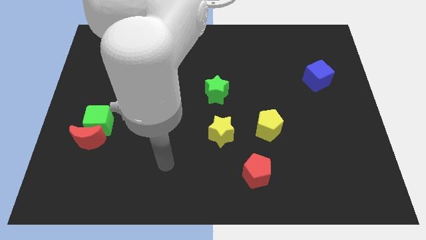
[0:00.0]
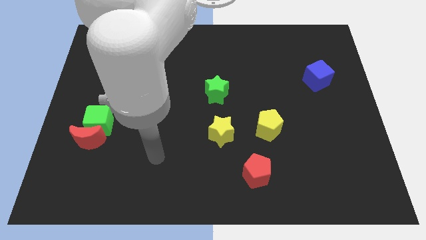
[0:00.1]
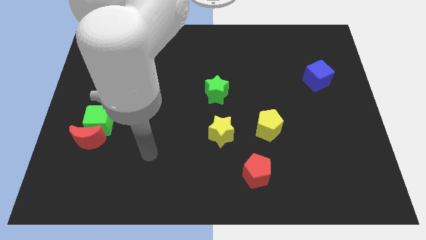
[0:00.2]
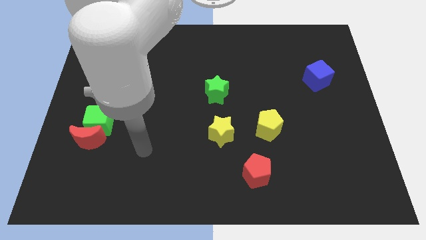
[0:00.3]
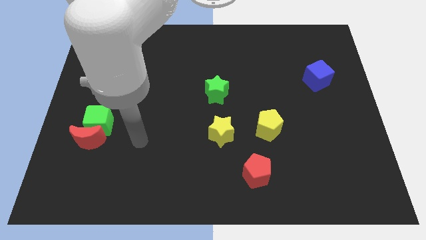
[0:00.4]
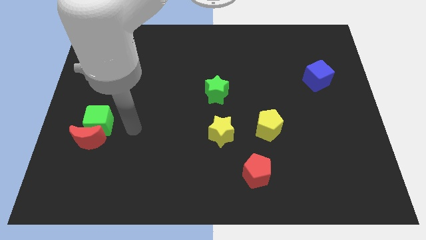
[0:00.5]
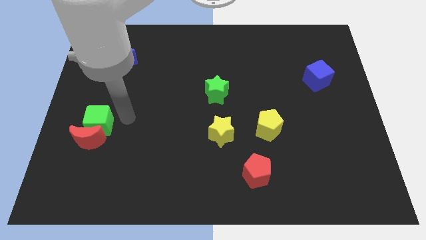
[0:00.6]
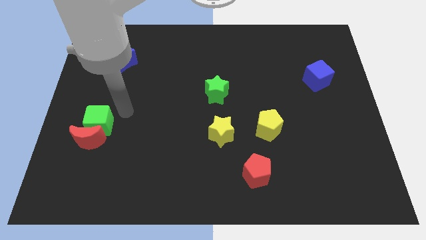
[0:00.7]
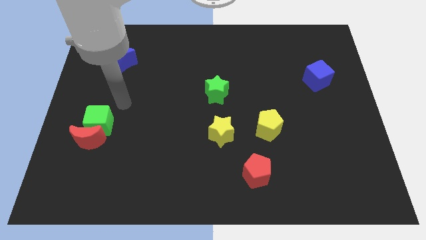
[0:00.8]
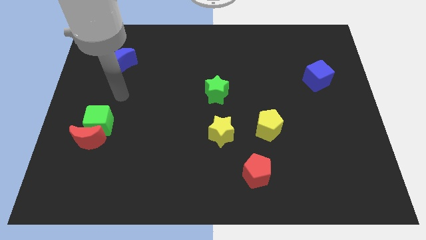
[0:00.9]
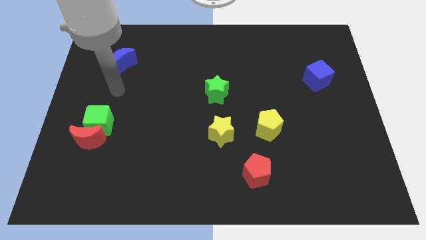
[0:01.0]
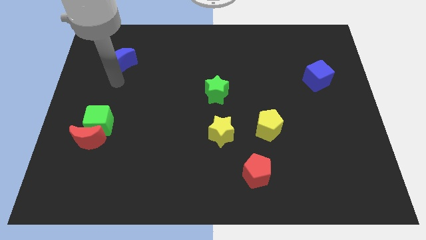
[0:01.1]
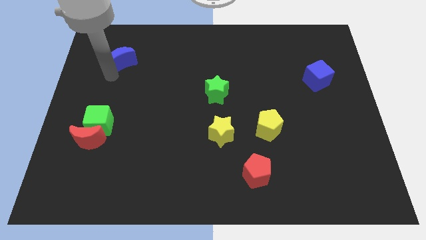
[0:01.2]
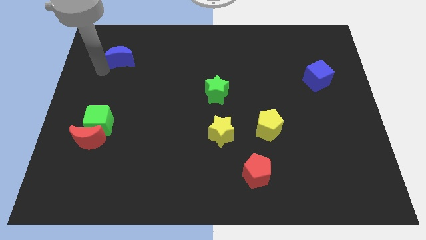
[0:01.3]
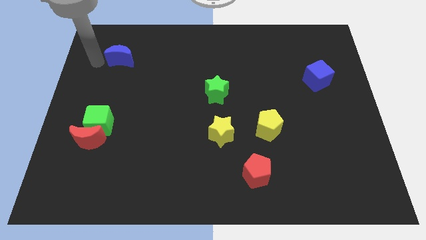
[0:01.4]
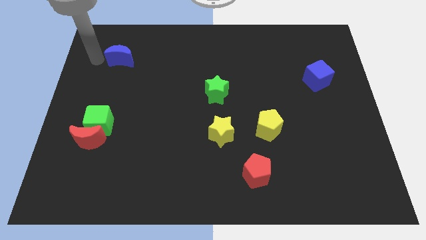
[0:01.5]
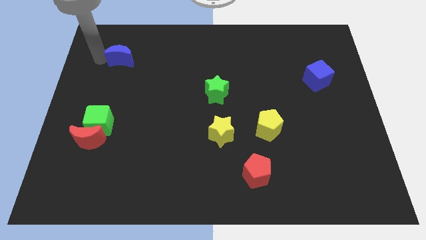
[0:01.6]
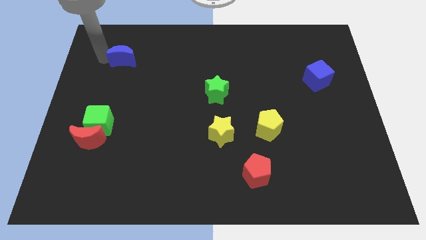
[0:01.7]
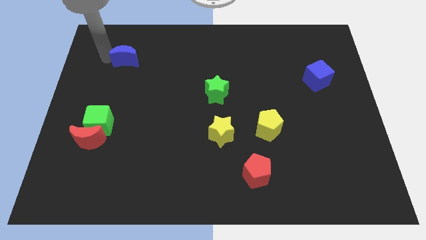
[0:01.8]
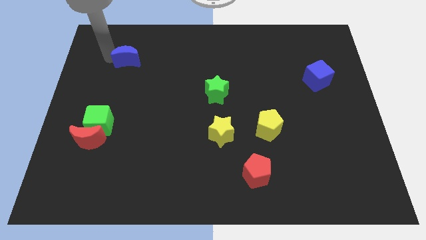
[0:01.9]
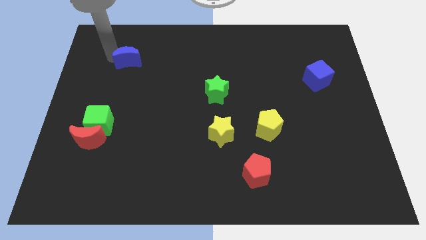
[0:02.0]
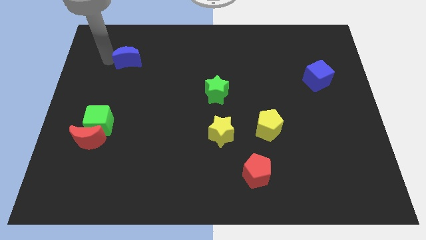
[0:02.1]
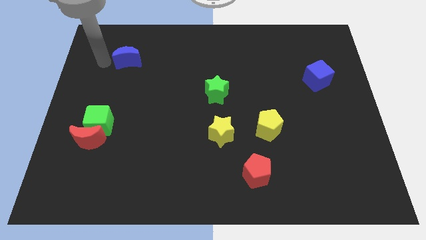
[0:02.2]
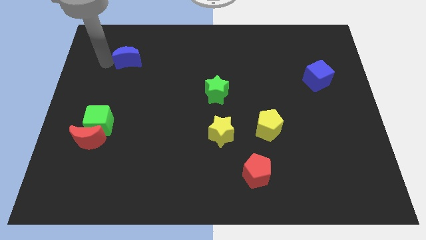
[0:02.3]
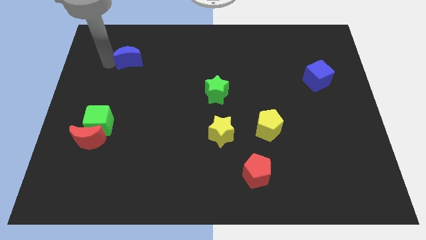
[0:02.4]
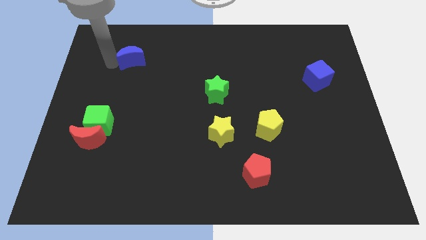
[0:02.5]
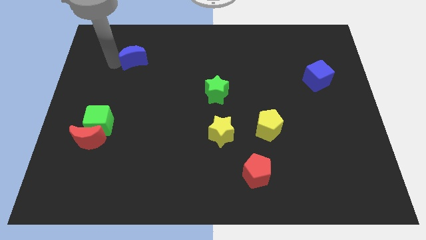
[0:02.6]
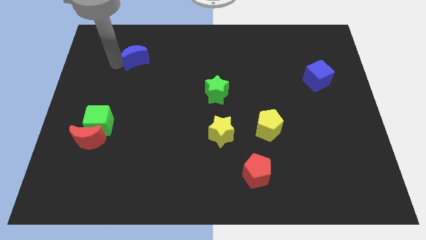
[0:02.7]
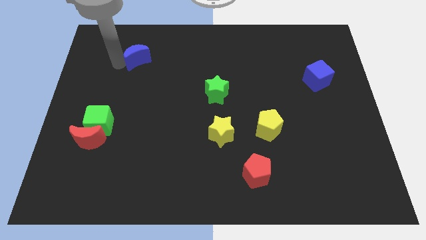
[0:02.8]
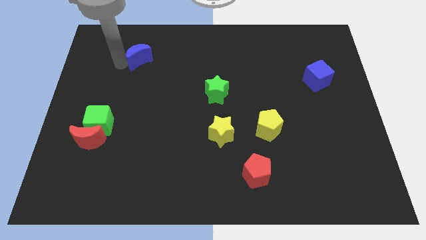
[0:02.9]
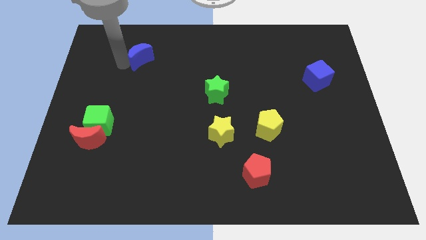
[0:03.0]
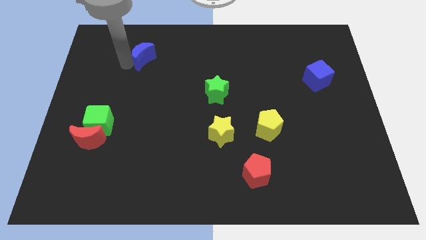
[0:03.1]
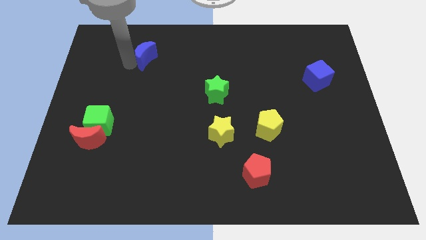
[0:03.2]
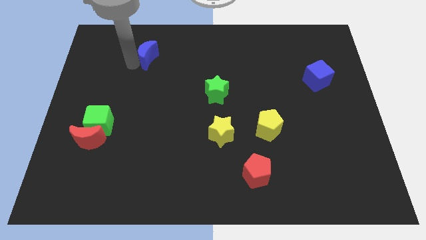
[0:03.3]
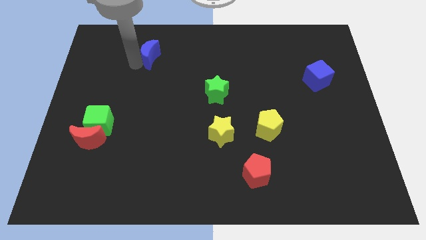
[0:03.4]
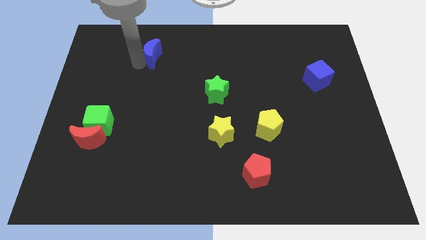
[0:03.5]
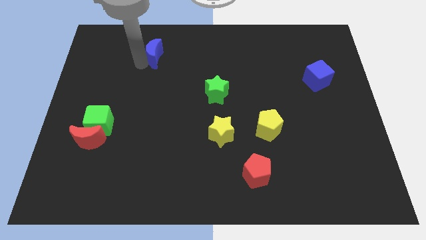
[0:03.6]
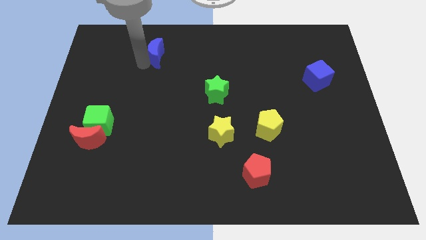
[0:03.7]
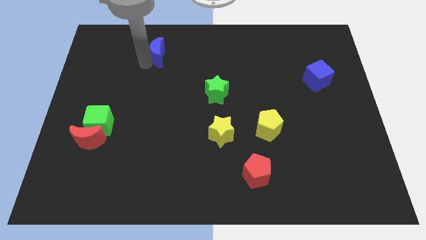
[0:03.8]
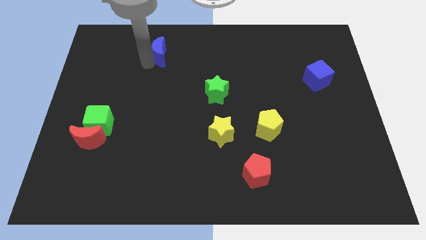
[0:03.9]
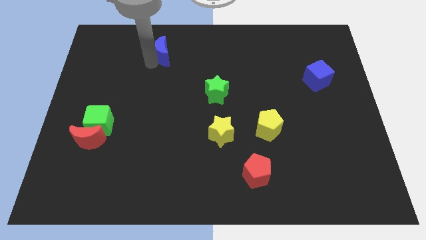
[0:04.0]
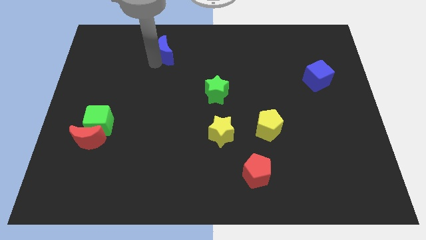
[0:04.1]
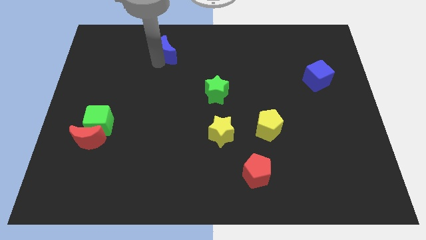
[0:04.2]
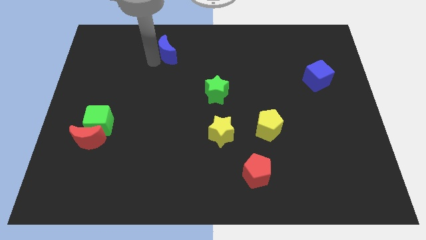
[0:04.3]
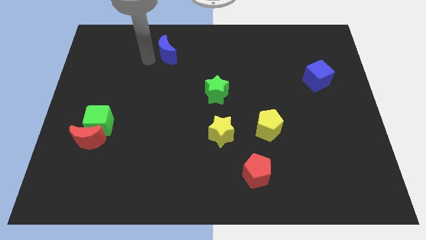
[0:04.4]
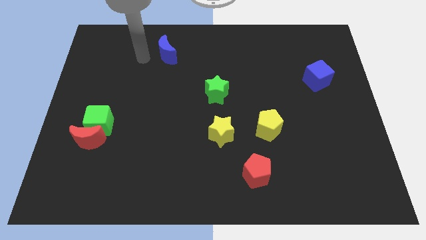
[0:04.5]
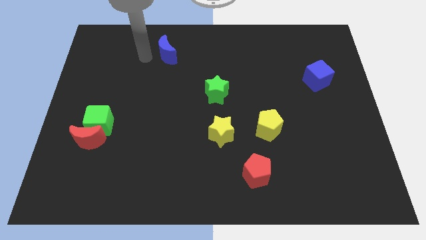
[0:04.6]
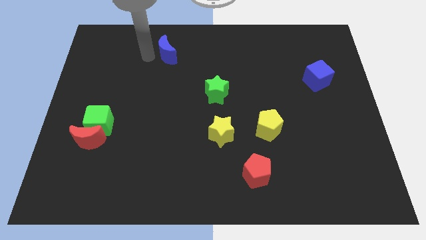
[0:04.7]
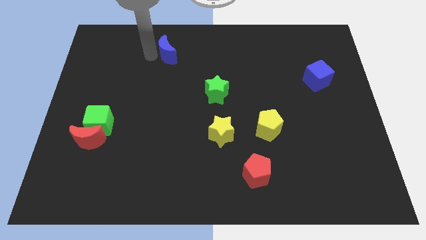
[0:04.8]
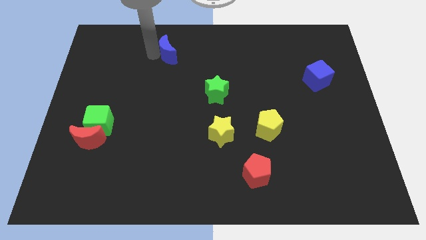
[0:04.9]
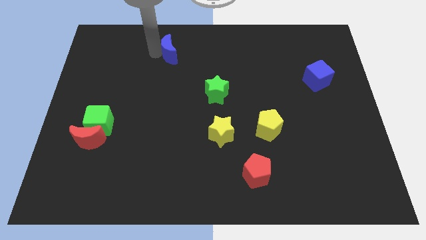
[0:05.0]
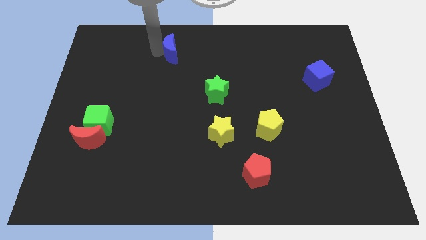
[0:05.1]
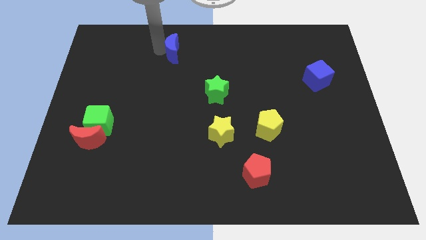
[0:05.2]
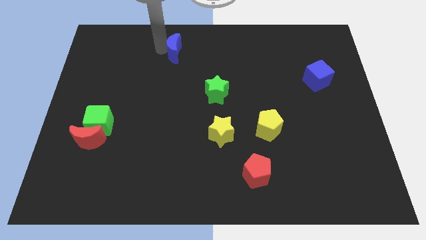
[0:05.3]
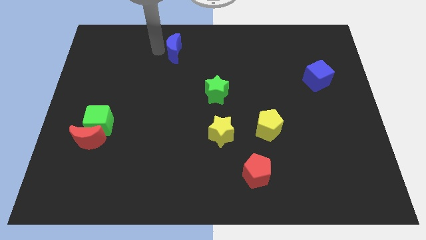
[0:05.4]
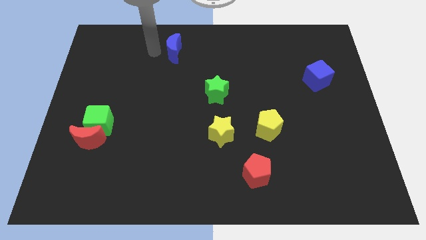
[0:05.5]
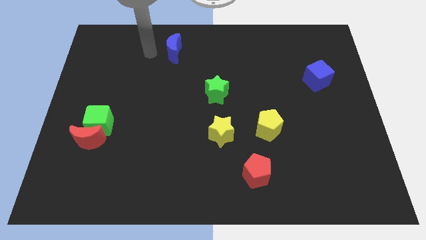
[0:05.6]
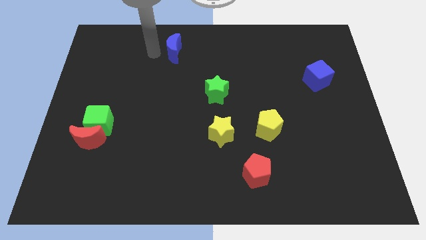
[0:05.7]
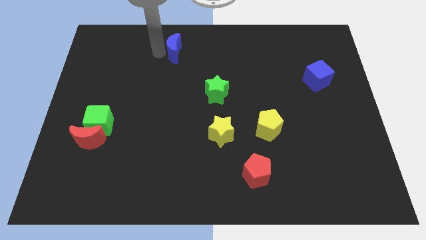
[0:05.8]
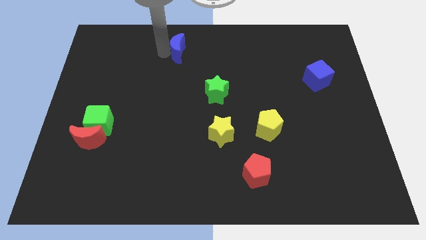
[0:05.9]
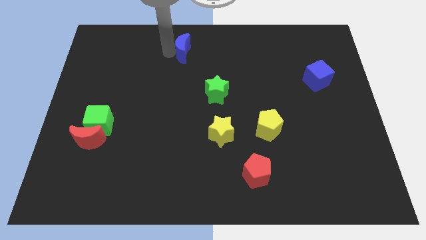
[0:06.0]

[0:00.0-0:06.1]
put the blue moon to the top

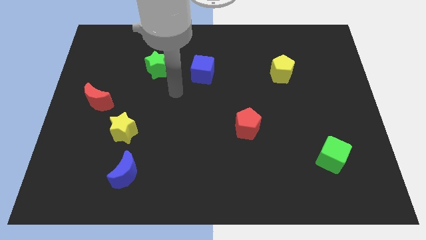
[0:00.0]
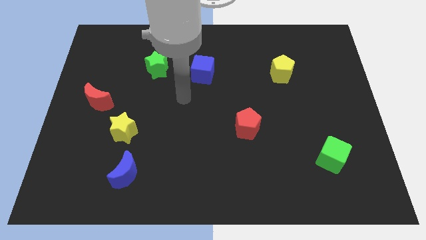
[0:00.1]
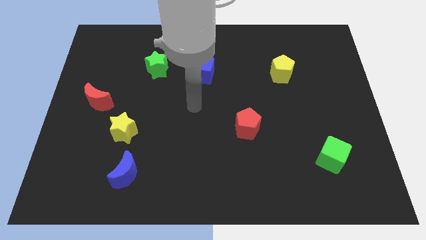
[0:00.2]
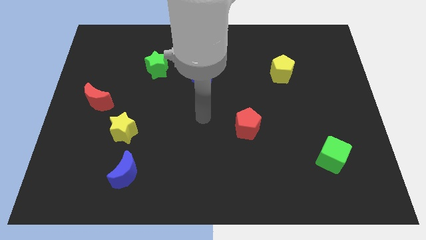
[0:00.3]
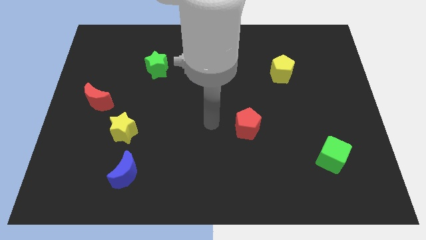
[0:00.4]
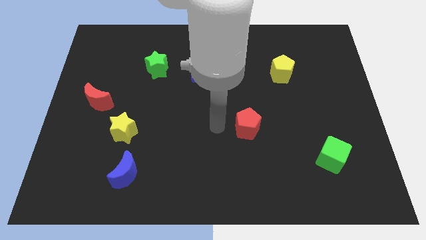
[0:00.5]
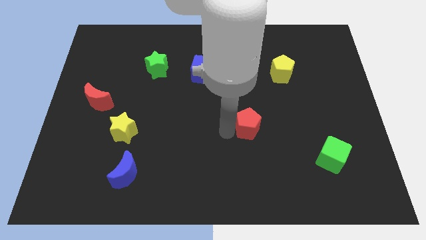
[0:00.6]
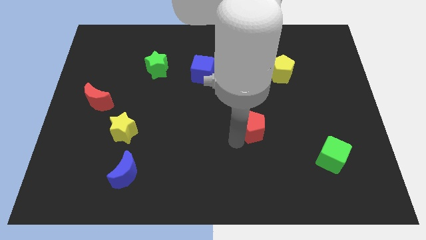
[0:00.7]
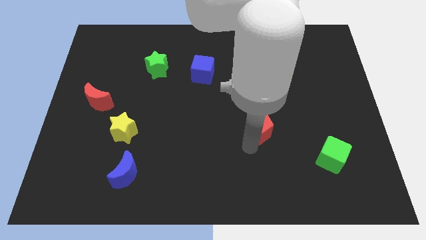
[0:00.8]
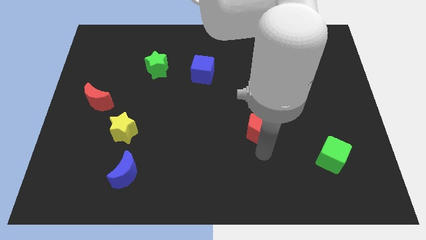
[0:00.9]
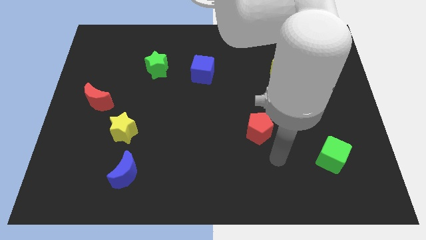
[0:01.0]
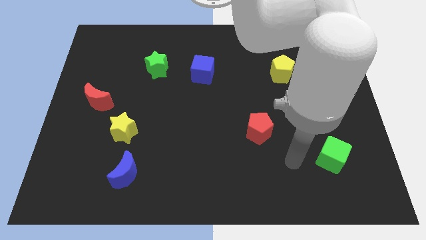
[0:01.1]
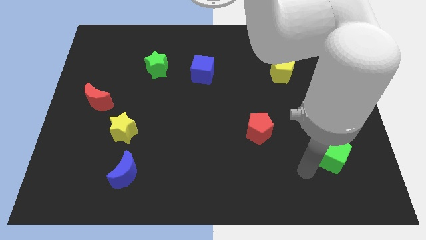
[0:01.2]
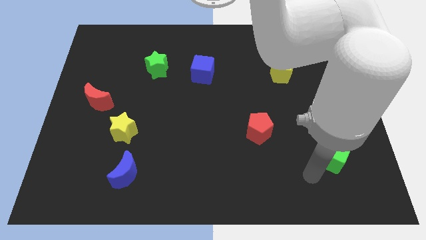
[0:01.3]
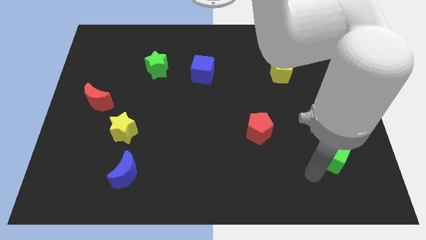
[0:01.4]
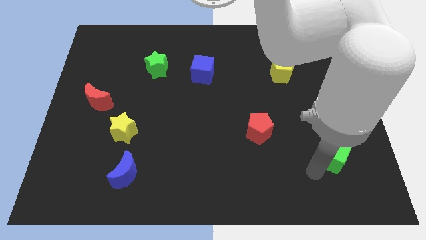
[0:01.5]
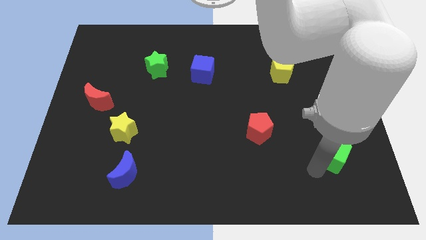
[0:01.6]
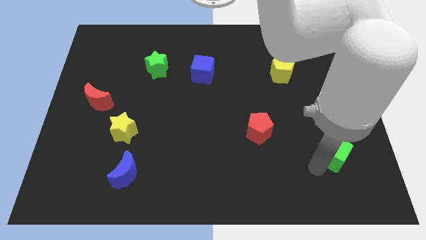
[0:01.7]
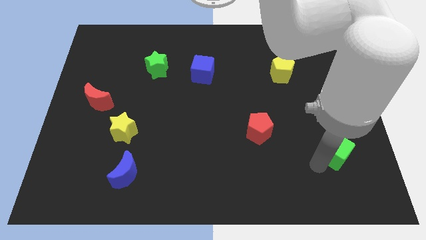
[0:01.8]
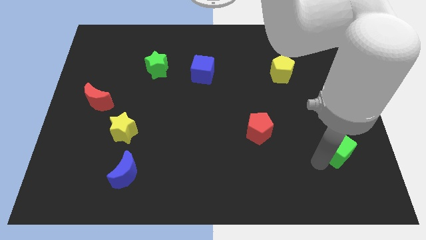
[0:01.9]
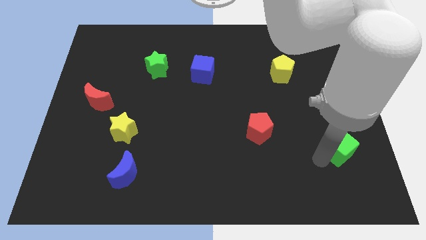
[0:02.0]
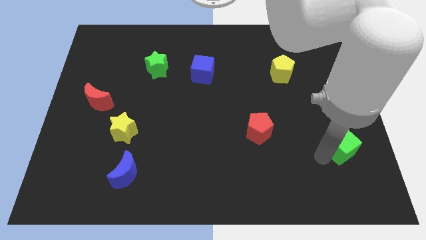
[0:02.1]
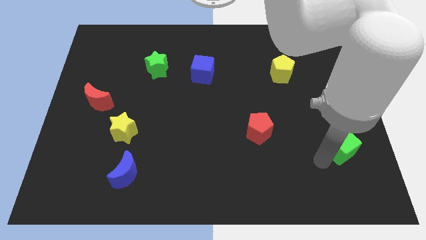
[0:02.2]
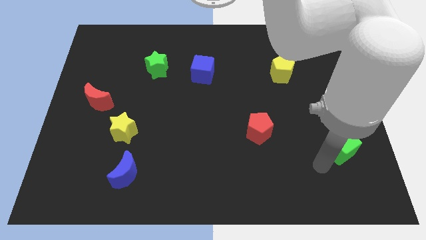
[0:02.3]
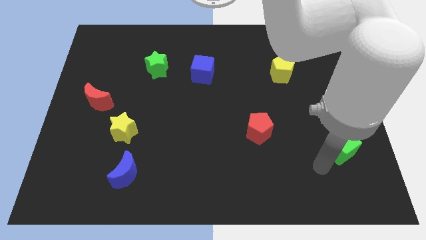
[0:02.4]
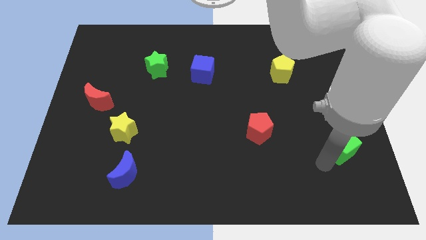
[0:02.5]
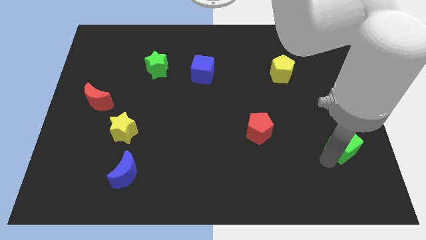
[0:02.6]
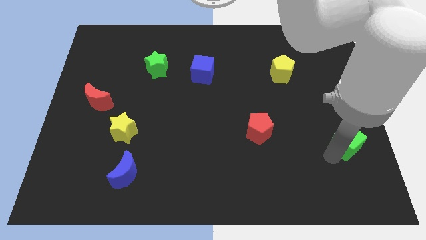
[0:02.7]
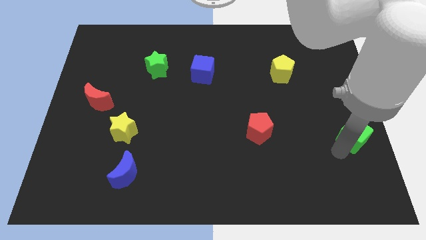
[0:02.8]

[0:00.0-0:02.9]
move the green cube to the right side
